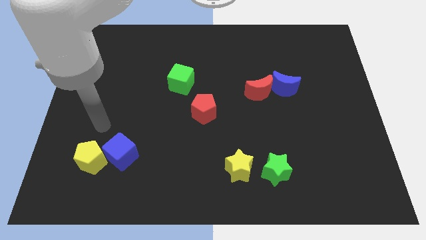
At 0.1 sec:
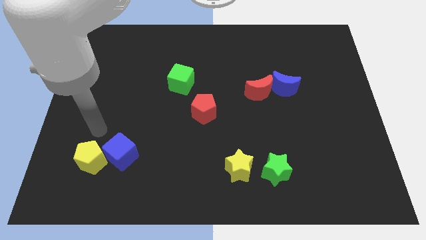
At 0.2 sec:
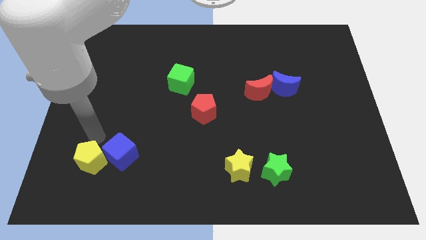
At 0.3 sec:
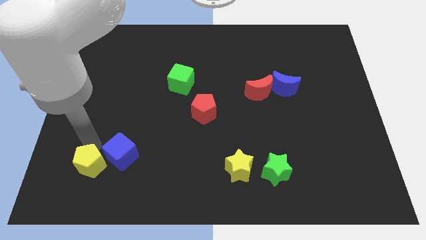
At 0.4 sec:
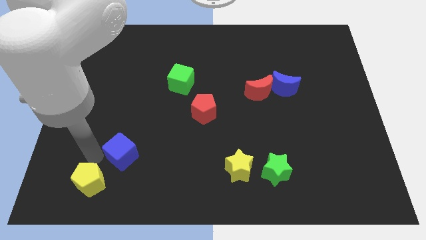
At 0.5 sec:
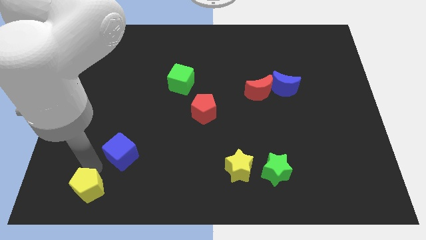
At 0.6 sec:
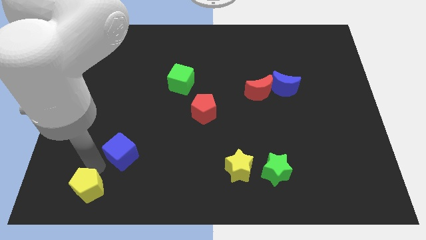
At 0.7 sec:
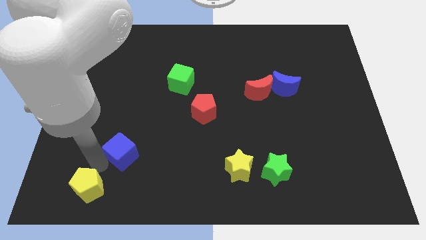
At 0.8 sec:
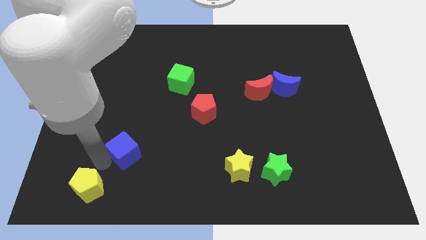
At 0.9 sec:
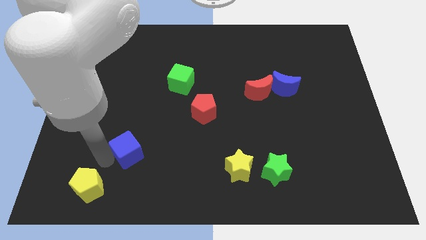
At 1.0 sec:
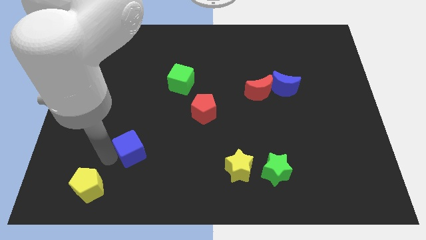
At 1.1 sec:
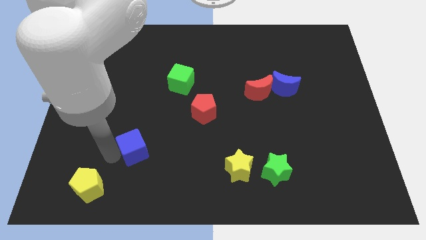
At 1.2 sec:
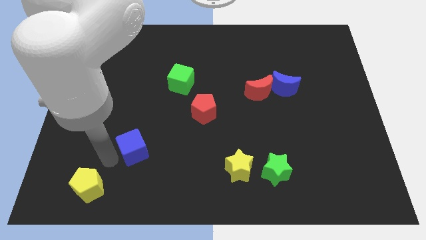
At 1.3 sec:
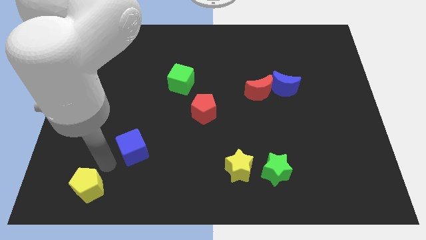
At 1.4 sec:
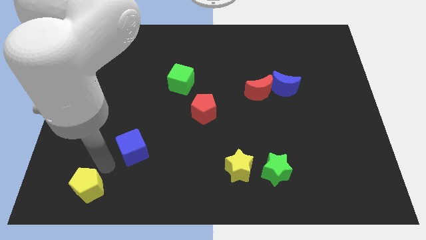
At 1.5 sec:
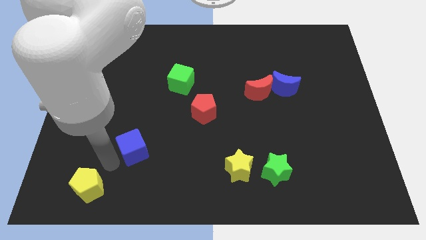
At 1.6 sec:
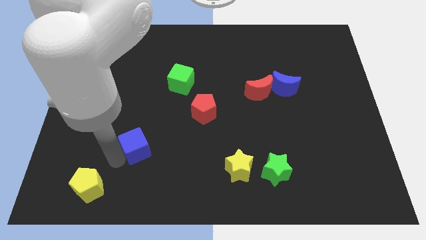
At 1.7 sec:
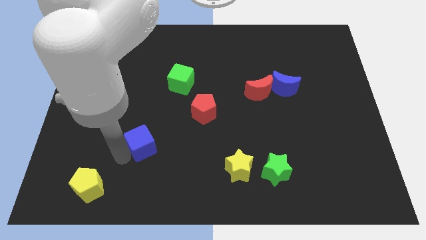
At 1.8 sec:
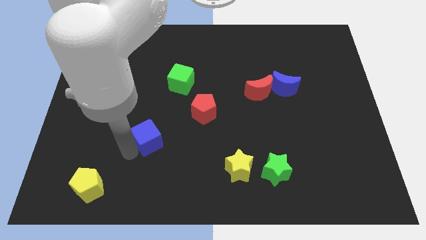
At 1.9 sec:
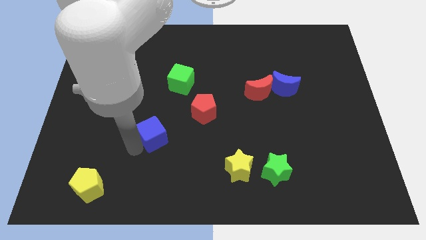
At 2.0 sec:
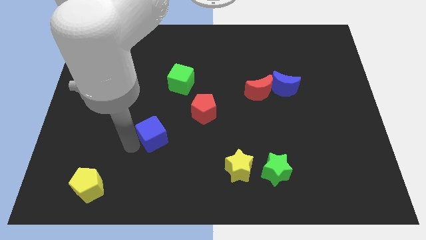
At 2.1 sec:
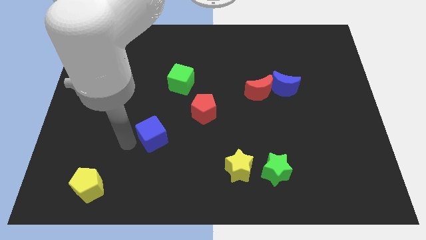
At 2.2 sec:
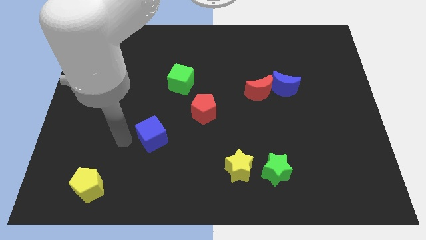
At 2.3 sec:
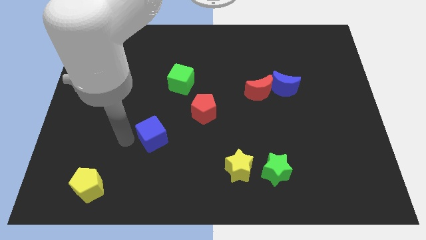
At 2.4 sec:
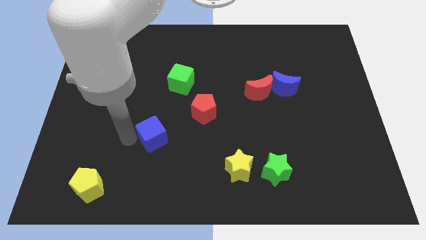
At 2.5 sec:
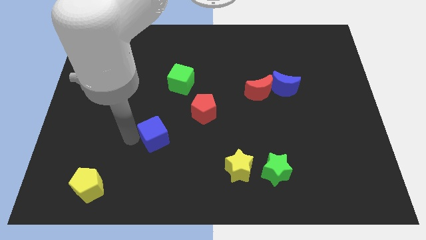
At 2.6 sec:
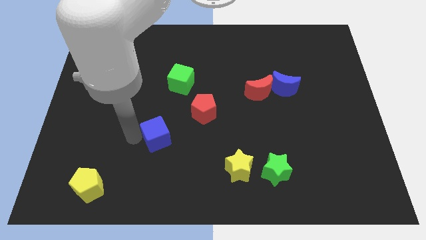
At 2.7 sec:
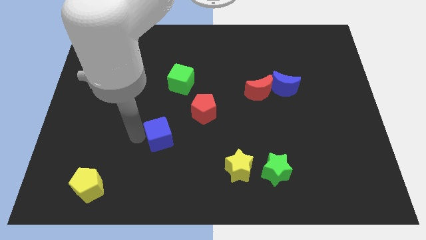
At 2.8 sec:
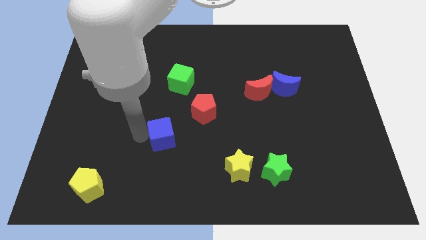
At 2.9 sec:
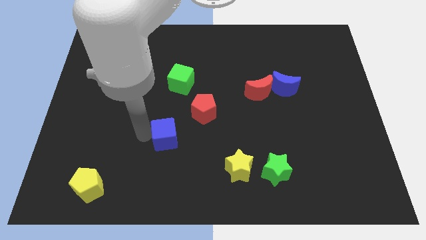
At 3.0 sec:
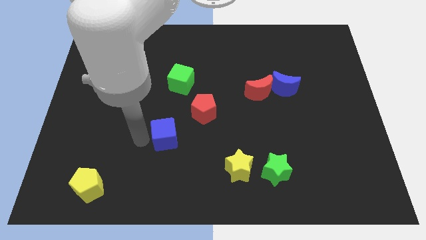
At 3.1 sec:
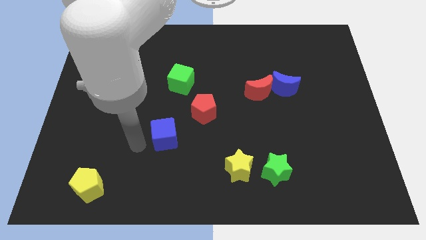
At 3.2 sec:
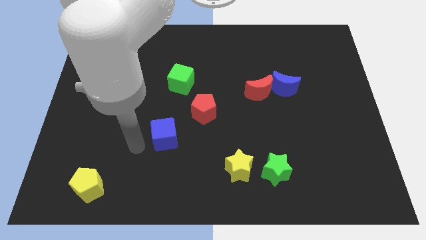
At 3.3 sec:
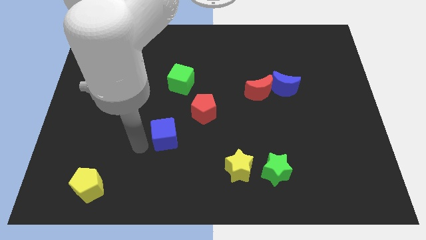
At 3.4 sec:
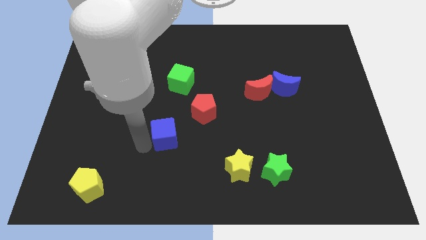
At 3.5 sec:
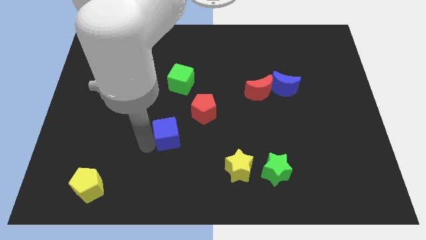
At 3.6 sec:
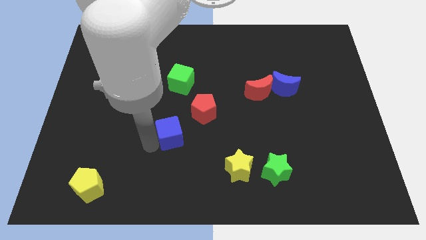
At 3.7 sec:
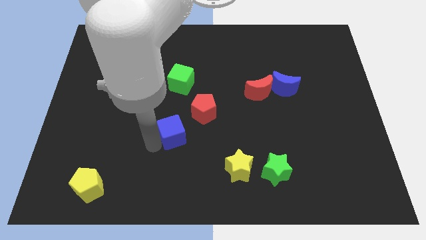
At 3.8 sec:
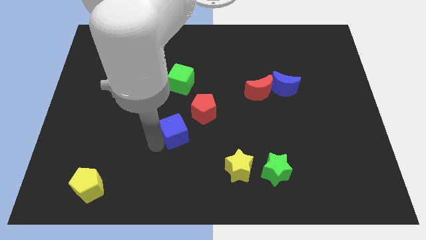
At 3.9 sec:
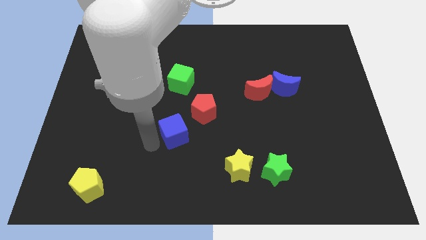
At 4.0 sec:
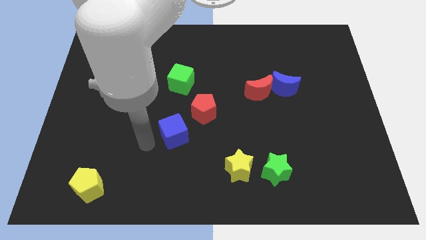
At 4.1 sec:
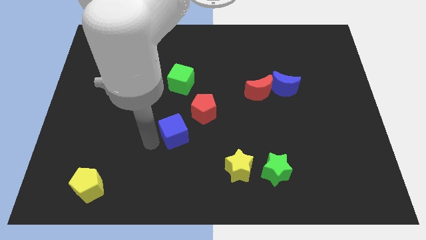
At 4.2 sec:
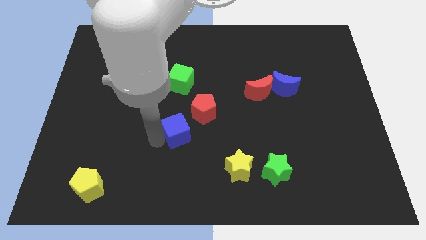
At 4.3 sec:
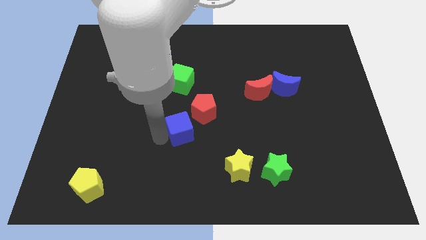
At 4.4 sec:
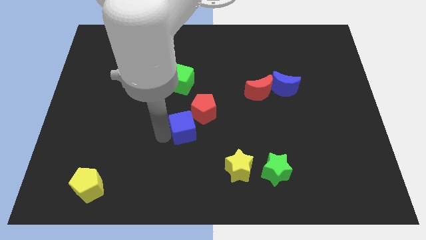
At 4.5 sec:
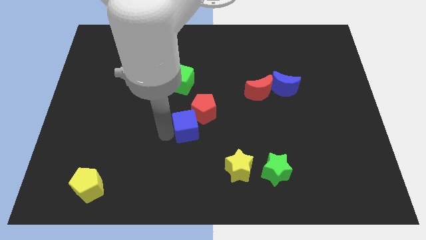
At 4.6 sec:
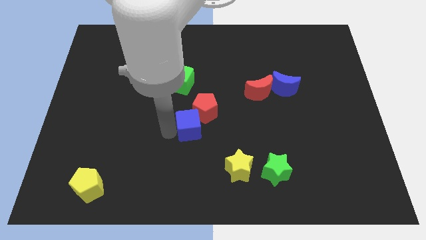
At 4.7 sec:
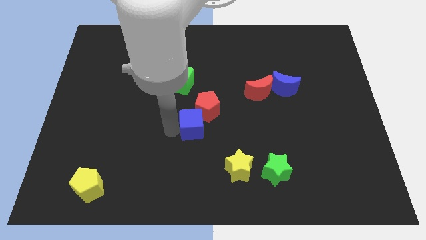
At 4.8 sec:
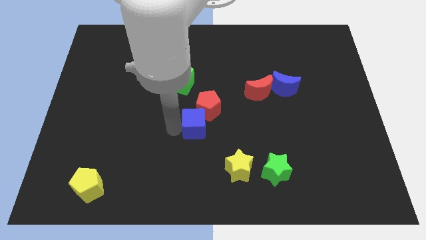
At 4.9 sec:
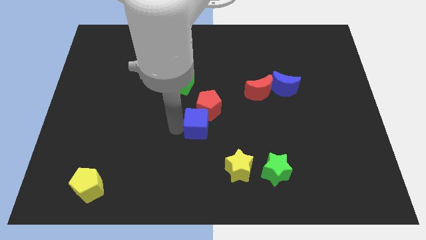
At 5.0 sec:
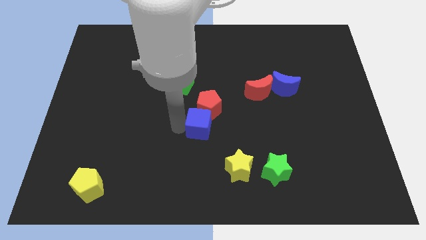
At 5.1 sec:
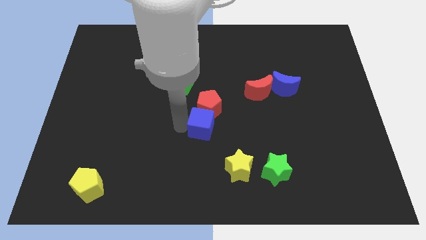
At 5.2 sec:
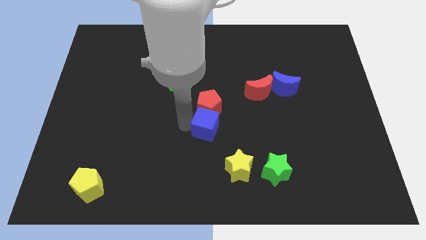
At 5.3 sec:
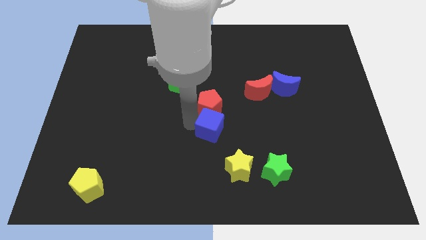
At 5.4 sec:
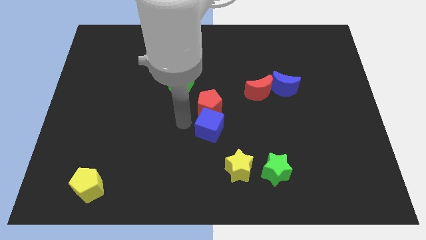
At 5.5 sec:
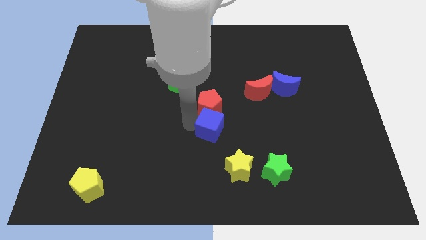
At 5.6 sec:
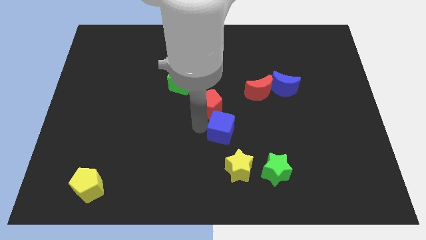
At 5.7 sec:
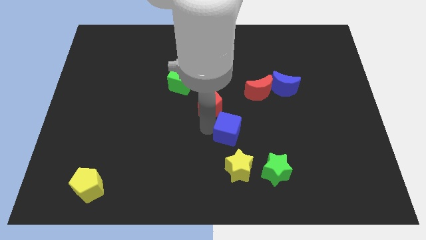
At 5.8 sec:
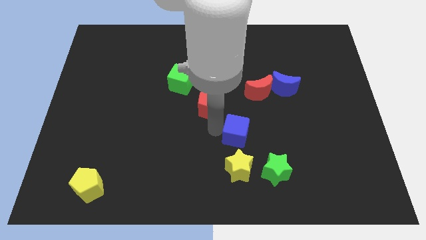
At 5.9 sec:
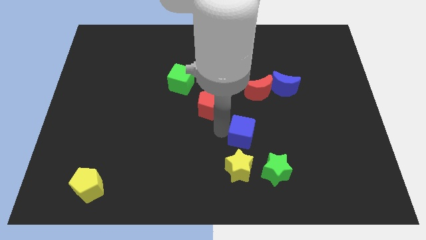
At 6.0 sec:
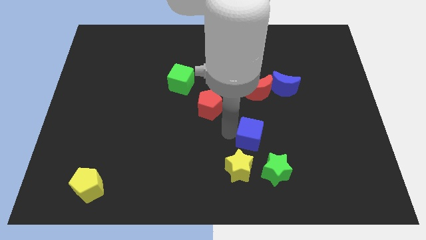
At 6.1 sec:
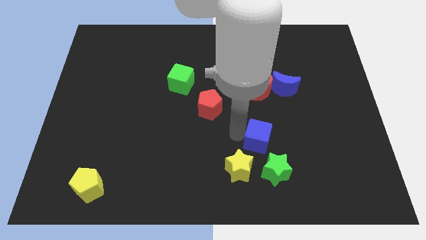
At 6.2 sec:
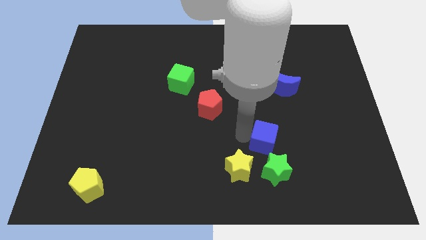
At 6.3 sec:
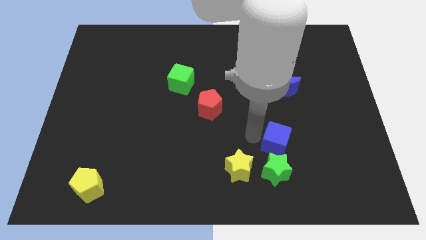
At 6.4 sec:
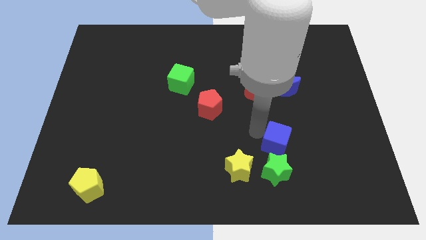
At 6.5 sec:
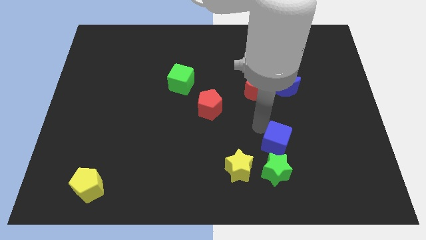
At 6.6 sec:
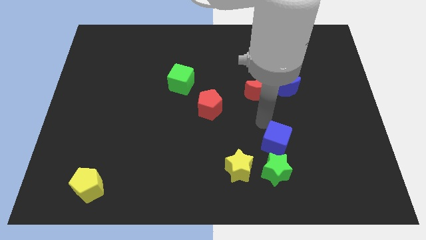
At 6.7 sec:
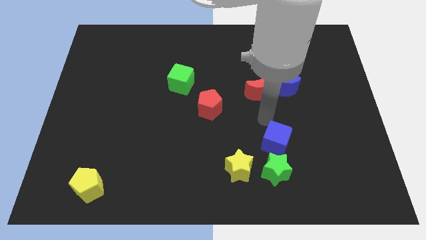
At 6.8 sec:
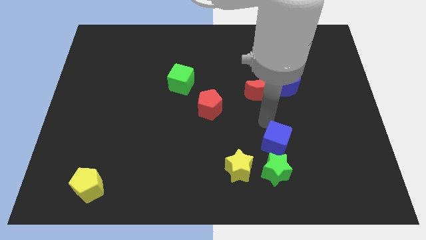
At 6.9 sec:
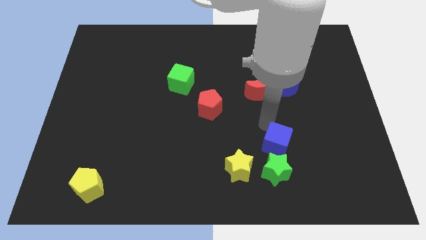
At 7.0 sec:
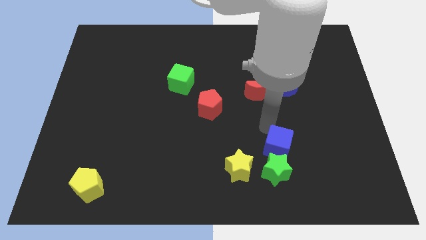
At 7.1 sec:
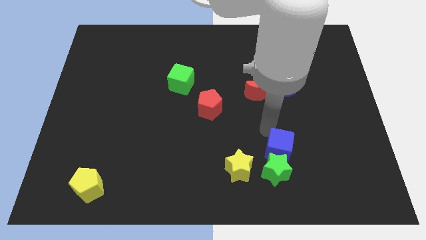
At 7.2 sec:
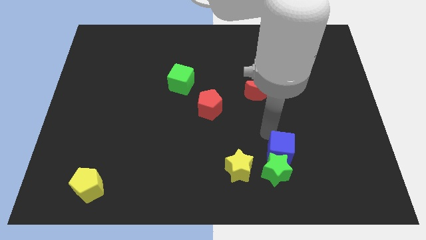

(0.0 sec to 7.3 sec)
move the blue cube to the right side of the yellow star
